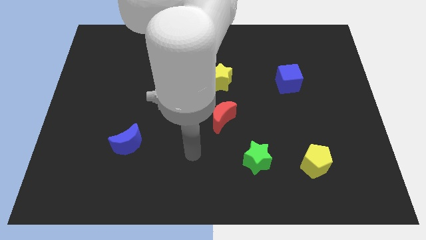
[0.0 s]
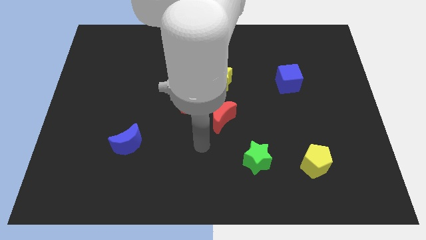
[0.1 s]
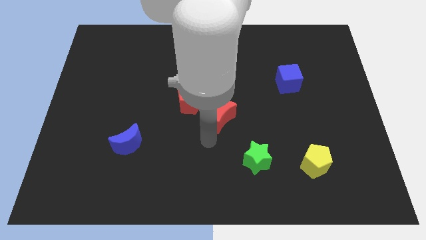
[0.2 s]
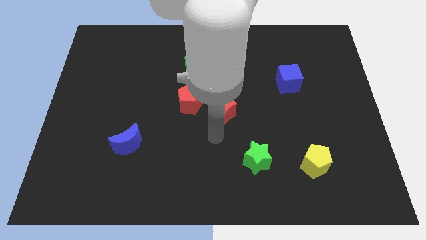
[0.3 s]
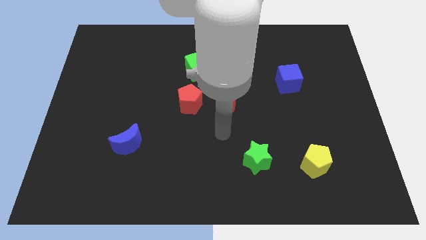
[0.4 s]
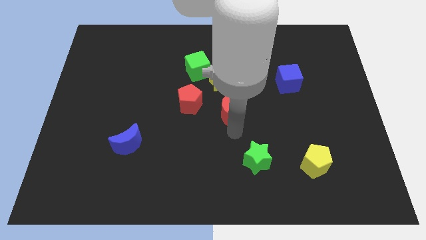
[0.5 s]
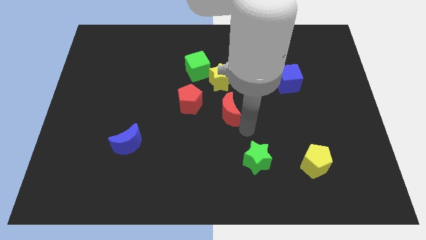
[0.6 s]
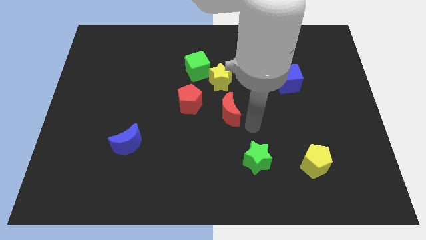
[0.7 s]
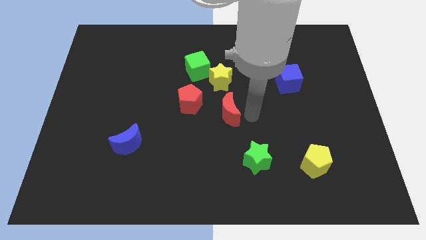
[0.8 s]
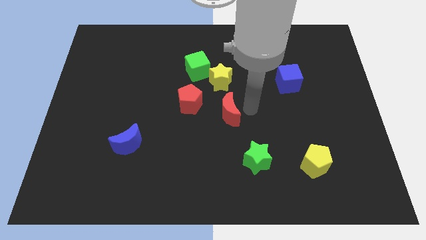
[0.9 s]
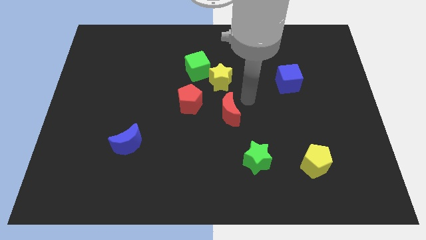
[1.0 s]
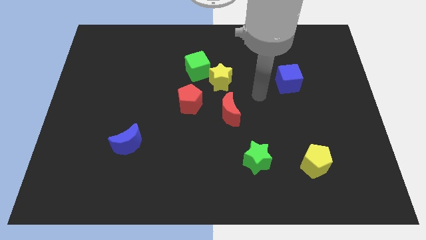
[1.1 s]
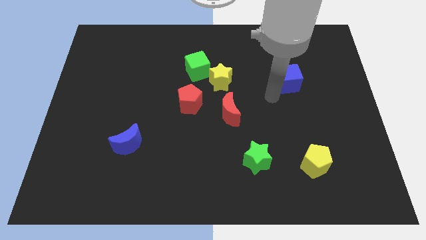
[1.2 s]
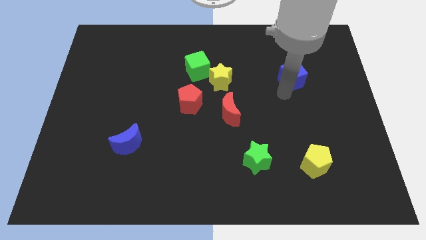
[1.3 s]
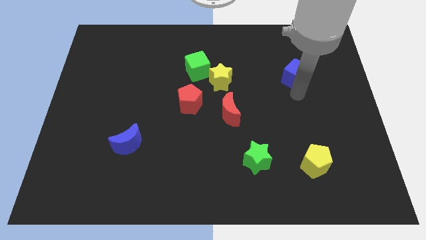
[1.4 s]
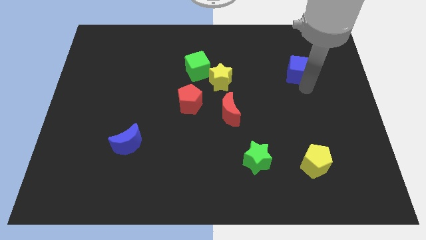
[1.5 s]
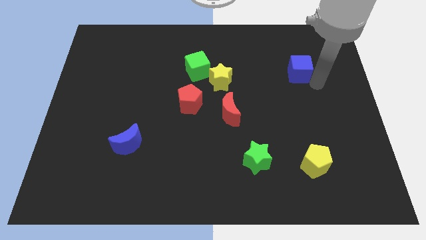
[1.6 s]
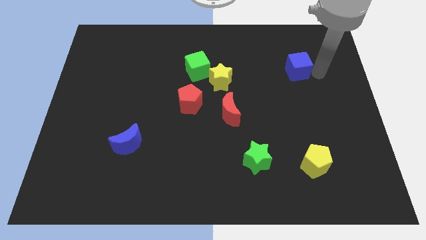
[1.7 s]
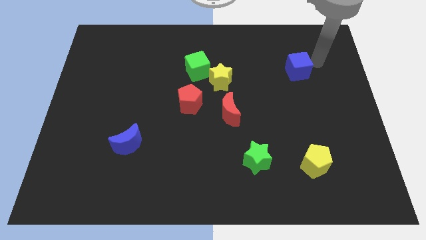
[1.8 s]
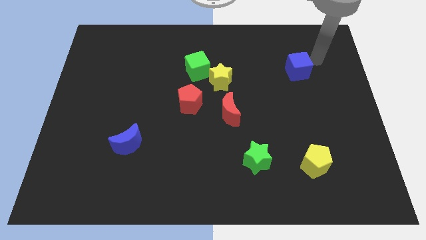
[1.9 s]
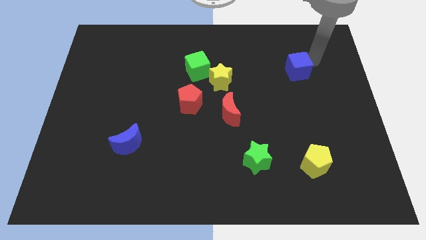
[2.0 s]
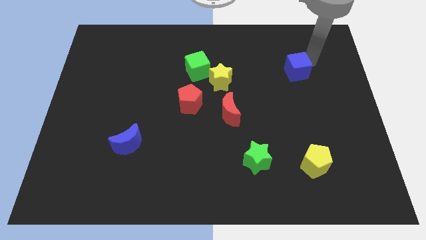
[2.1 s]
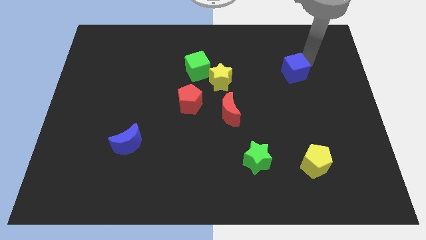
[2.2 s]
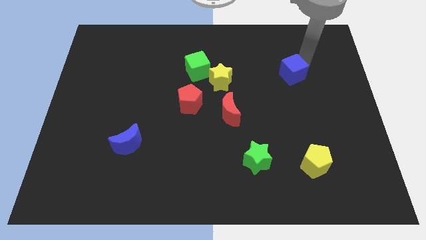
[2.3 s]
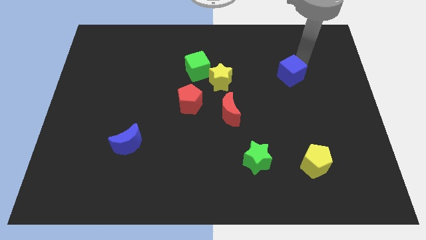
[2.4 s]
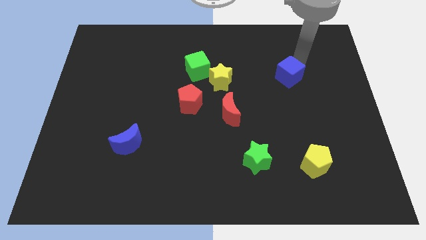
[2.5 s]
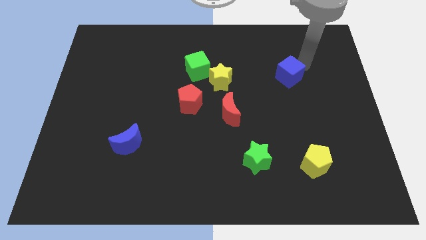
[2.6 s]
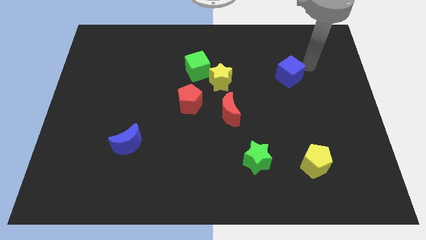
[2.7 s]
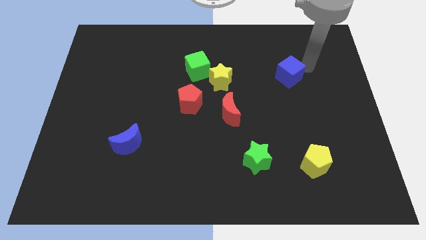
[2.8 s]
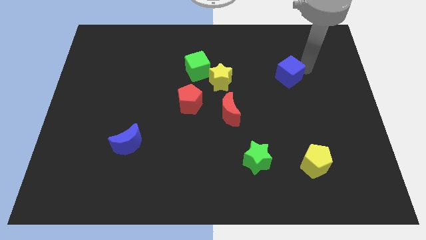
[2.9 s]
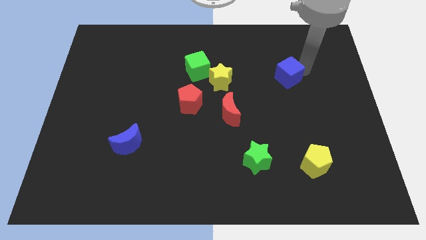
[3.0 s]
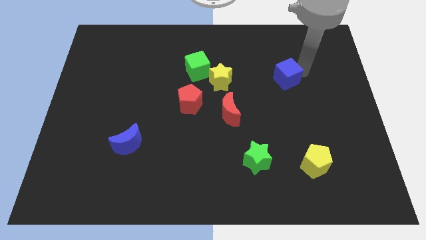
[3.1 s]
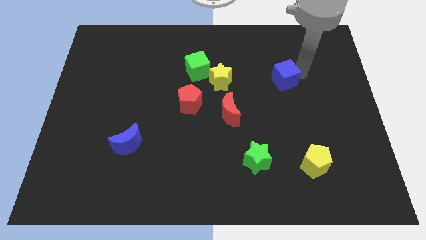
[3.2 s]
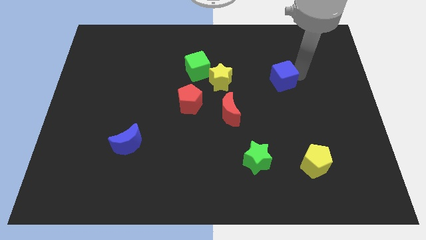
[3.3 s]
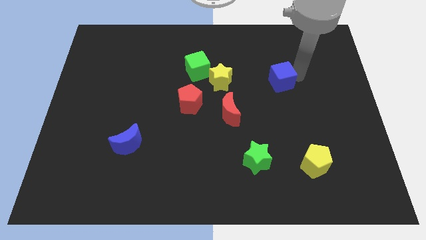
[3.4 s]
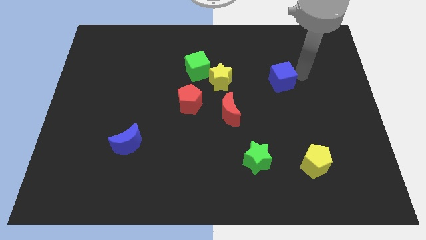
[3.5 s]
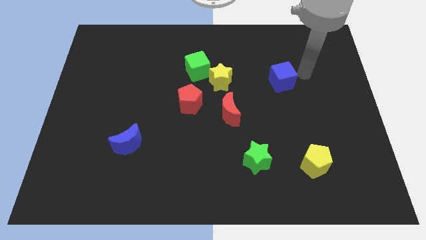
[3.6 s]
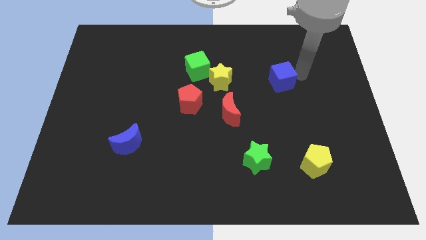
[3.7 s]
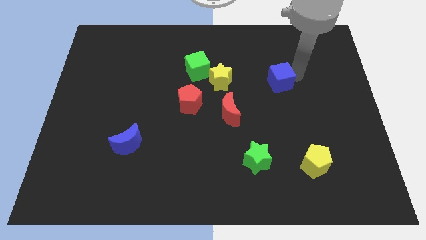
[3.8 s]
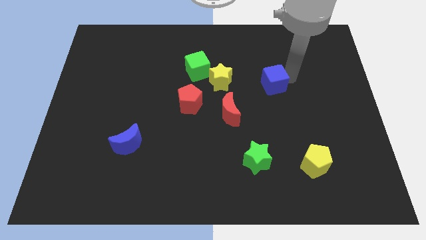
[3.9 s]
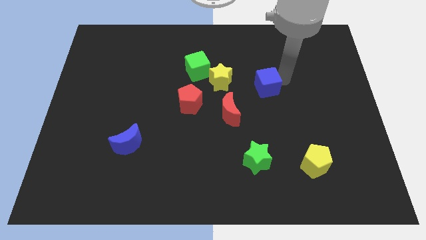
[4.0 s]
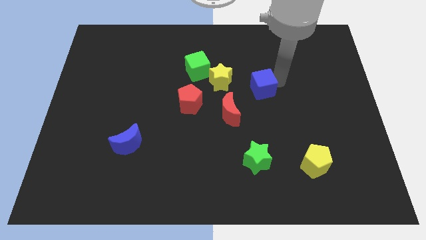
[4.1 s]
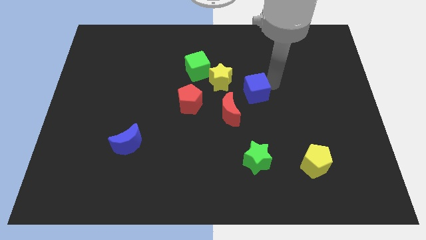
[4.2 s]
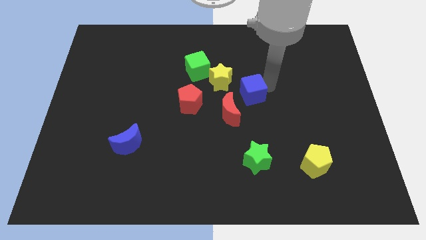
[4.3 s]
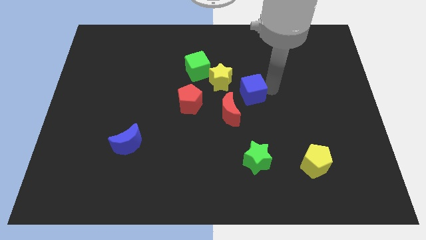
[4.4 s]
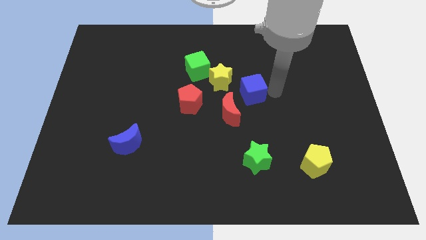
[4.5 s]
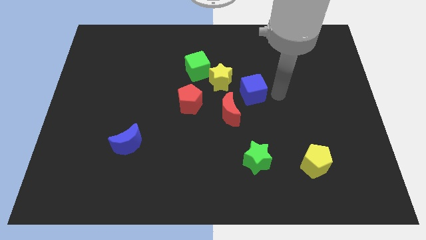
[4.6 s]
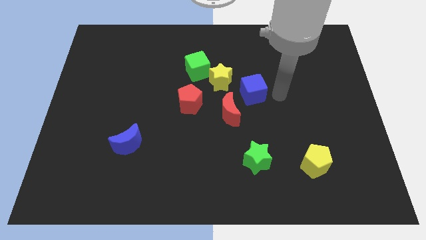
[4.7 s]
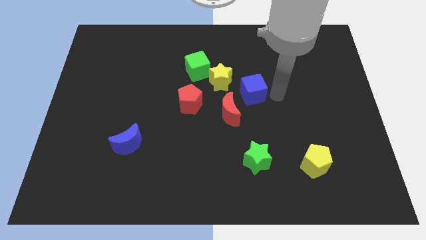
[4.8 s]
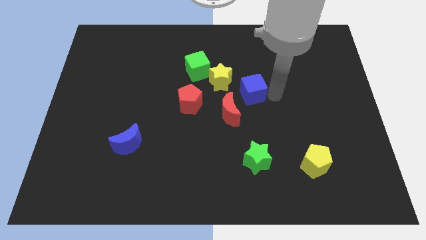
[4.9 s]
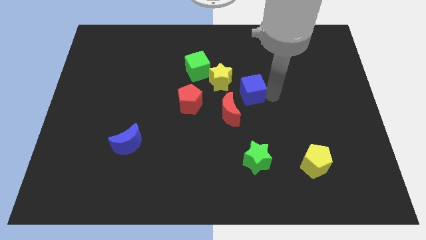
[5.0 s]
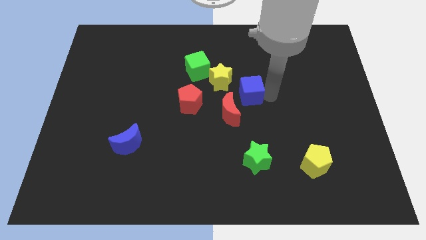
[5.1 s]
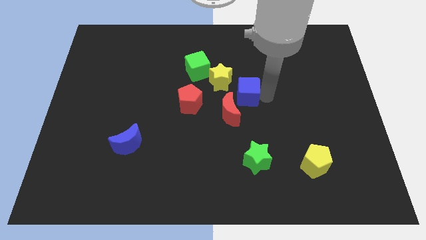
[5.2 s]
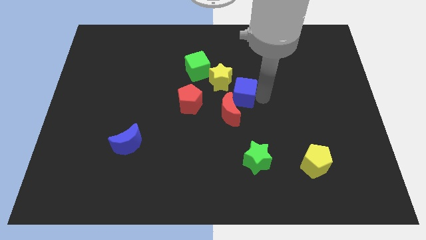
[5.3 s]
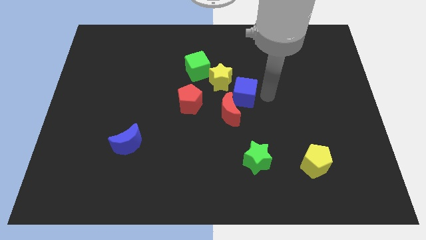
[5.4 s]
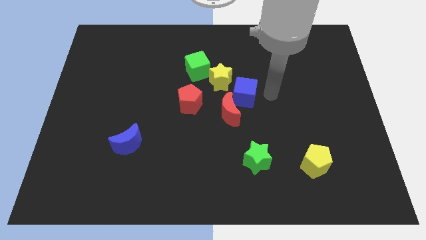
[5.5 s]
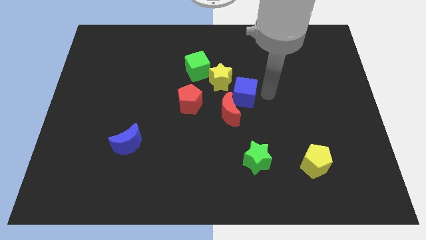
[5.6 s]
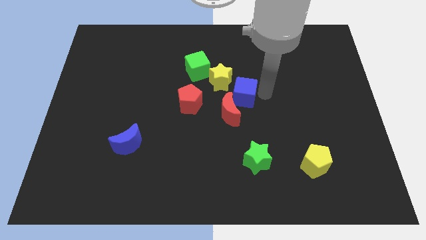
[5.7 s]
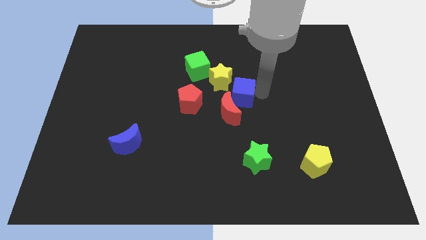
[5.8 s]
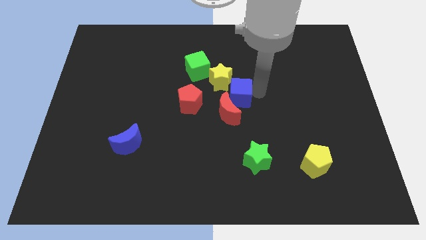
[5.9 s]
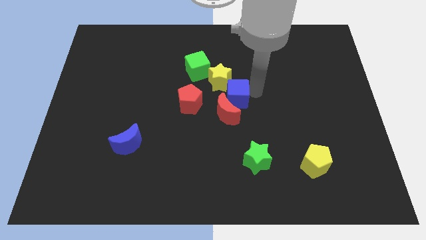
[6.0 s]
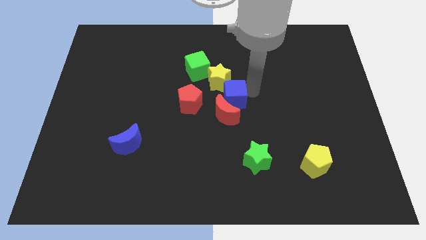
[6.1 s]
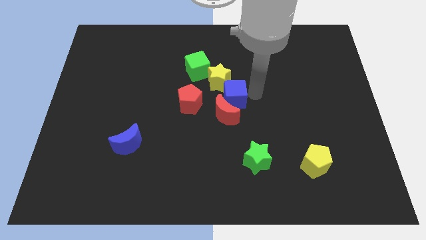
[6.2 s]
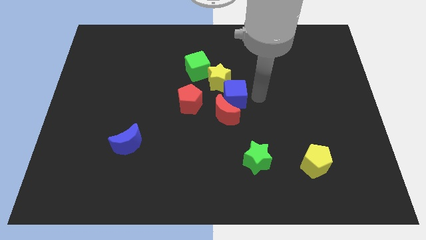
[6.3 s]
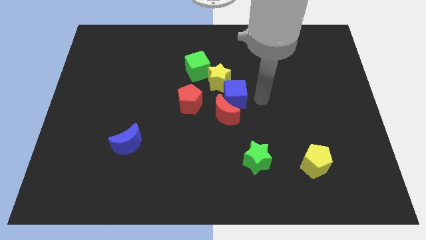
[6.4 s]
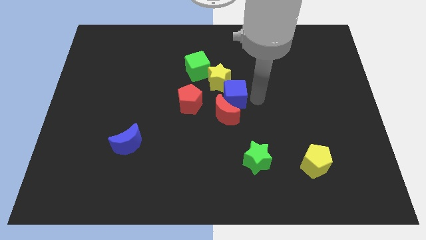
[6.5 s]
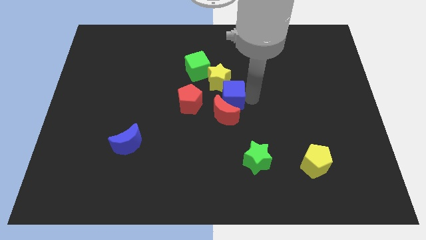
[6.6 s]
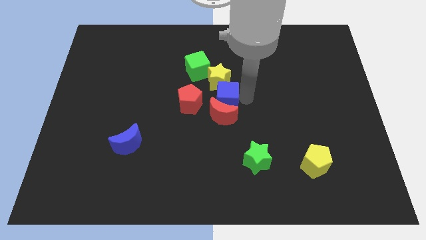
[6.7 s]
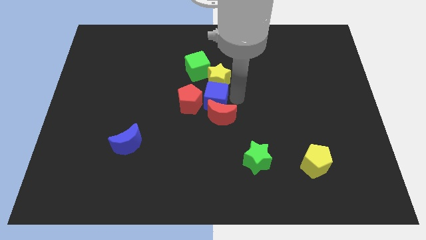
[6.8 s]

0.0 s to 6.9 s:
put the blue cube towards the red pentagon

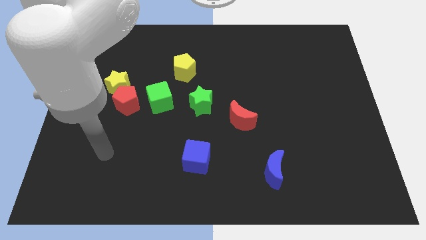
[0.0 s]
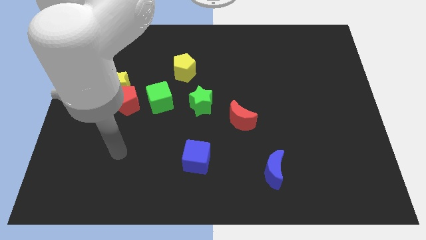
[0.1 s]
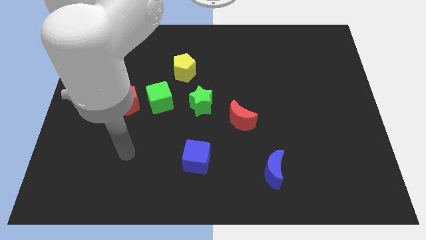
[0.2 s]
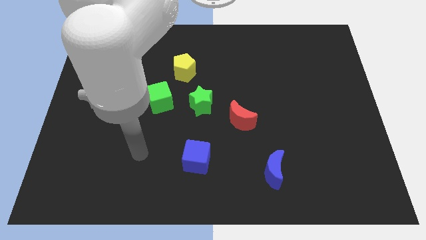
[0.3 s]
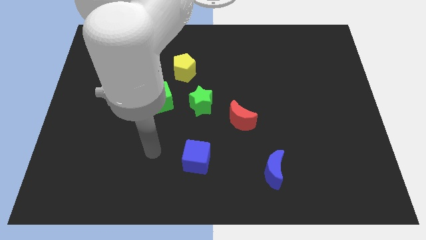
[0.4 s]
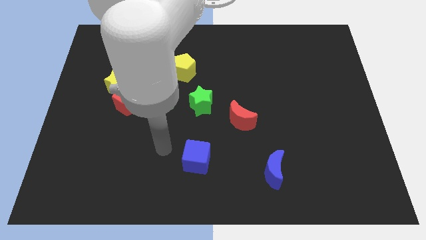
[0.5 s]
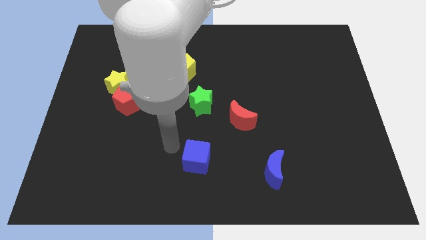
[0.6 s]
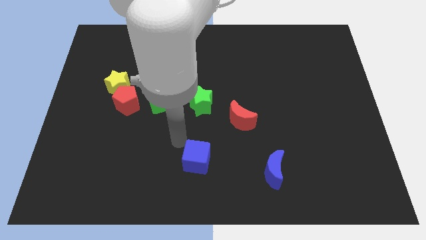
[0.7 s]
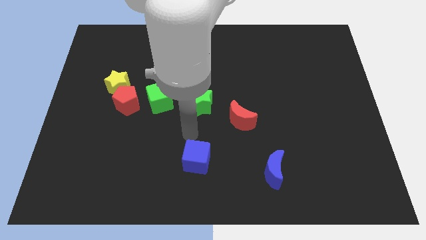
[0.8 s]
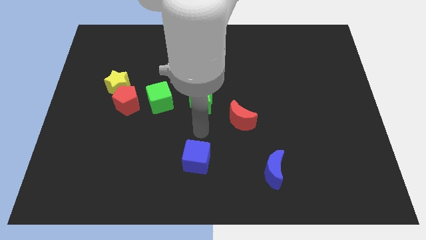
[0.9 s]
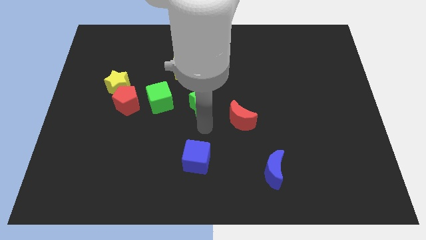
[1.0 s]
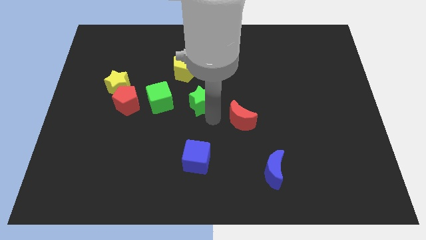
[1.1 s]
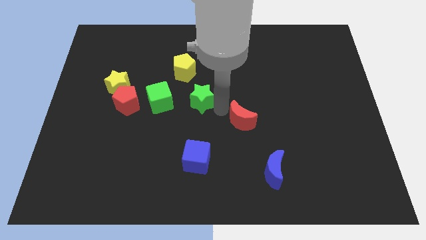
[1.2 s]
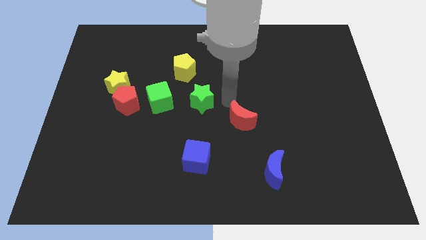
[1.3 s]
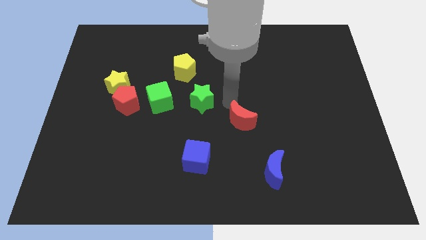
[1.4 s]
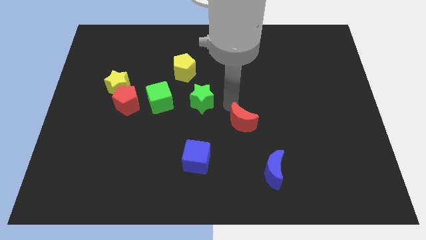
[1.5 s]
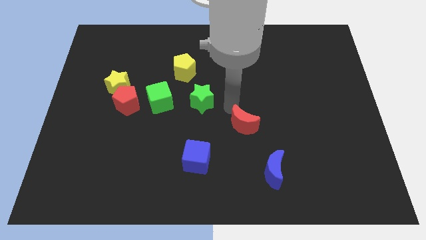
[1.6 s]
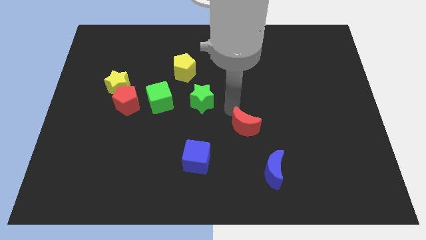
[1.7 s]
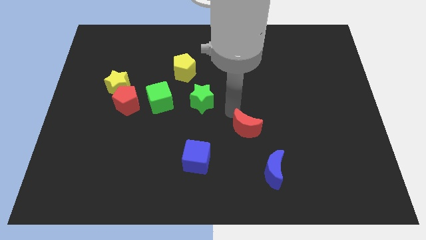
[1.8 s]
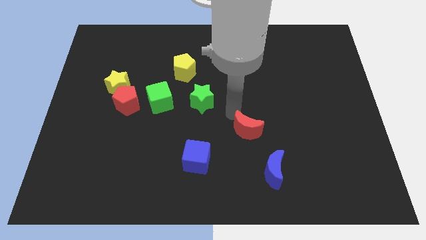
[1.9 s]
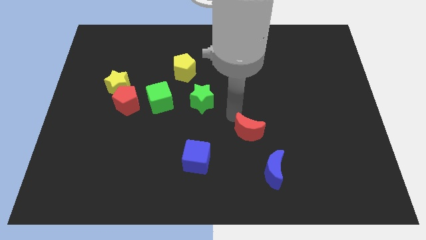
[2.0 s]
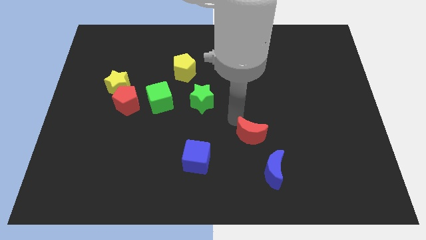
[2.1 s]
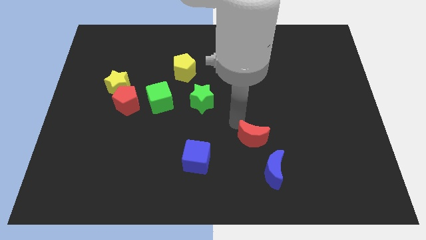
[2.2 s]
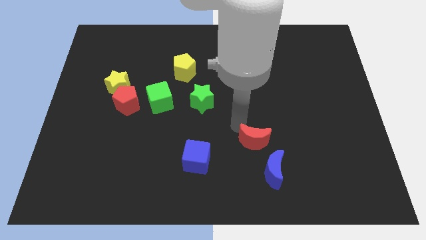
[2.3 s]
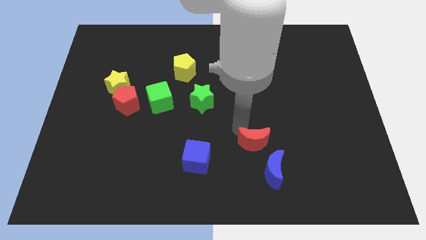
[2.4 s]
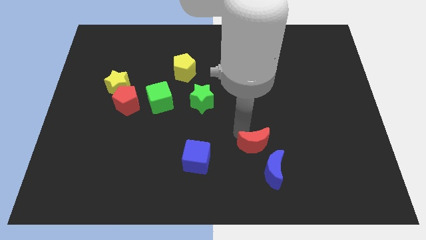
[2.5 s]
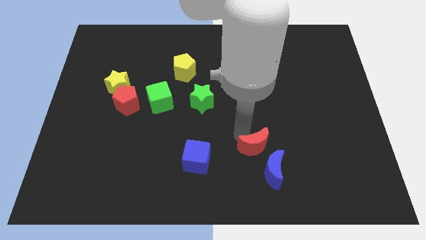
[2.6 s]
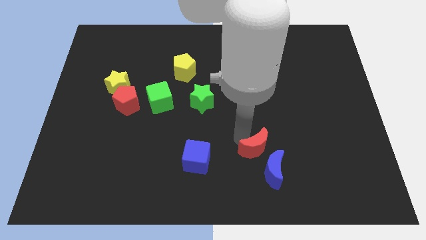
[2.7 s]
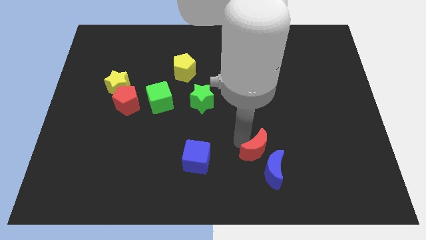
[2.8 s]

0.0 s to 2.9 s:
push the red moon next to the blue moon
